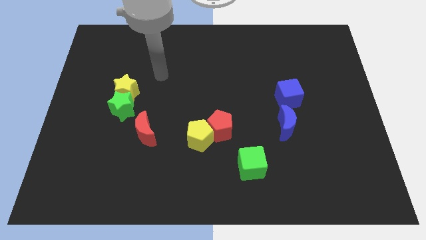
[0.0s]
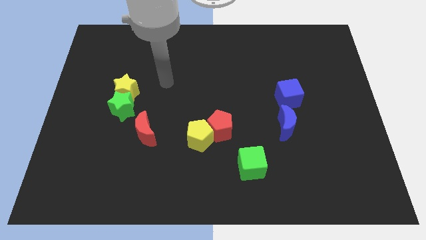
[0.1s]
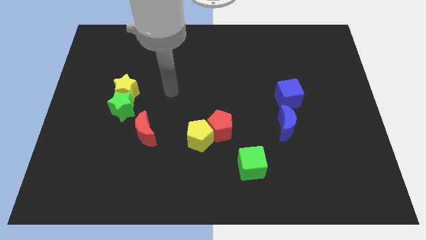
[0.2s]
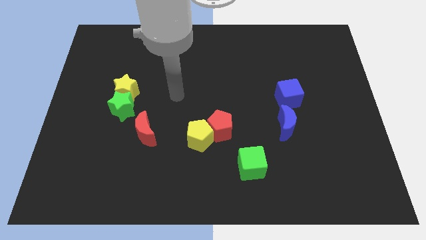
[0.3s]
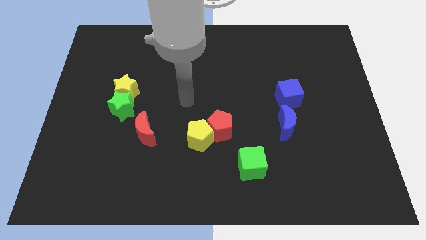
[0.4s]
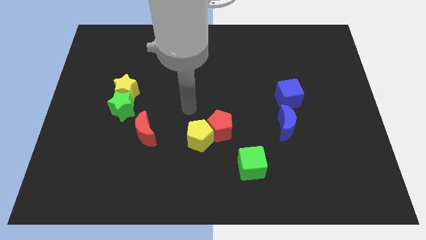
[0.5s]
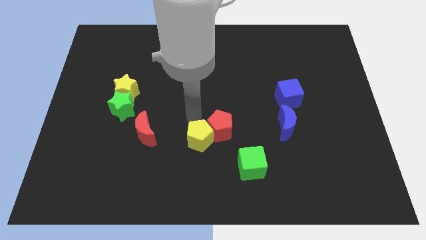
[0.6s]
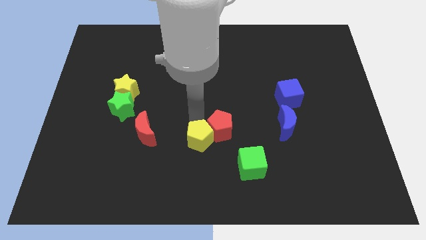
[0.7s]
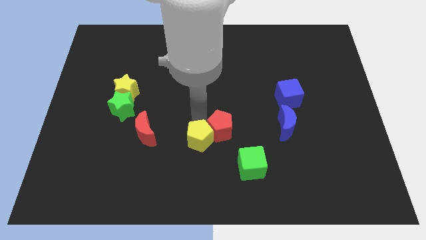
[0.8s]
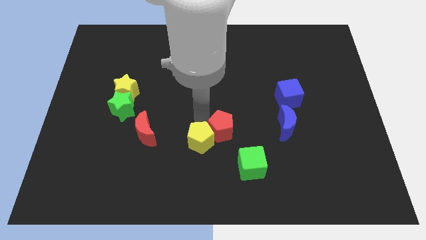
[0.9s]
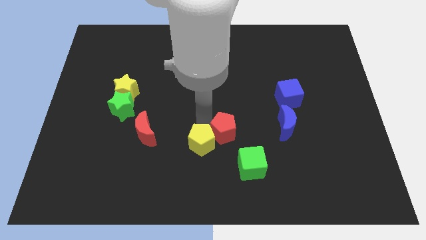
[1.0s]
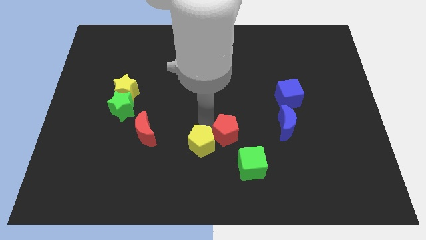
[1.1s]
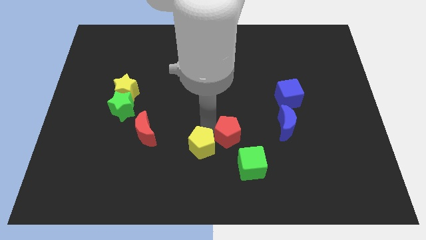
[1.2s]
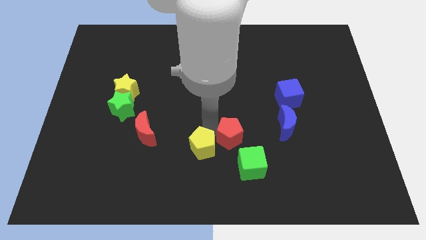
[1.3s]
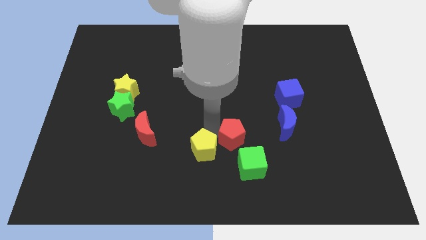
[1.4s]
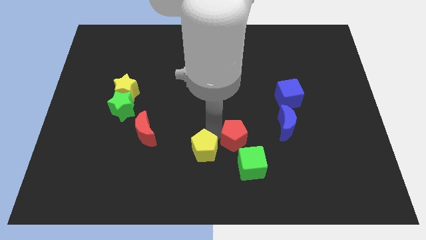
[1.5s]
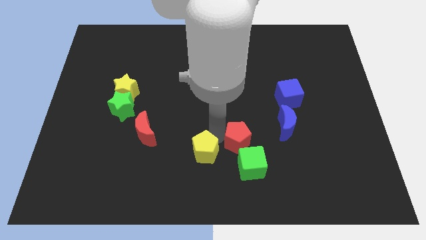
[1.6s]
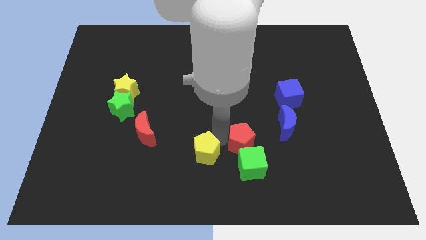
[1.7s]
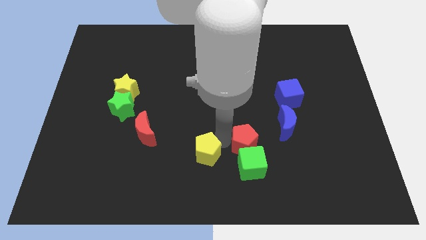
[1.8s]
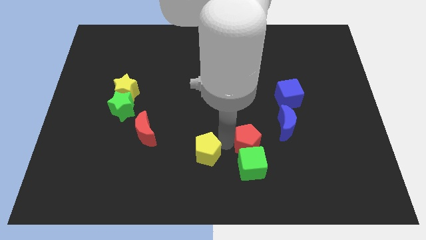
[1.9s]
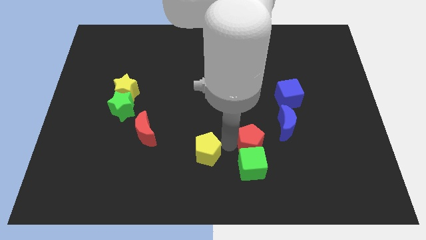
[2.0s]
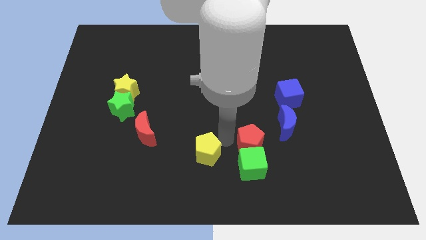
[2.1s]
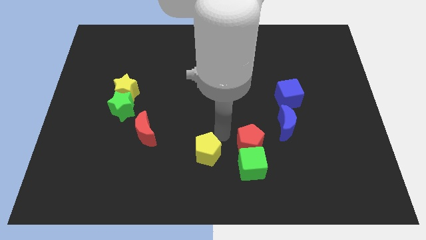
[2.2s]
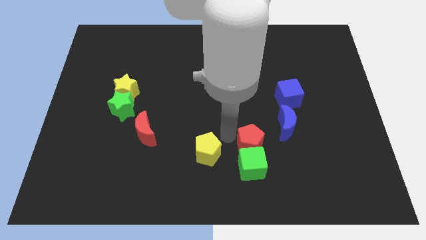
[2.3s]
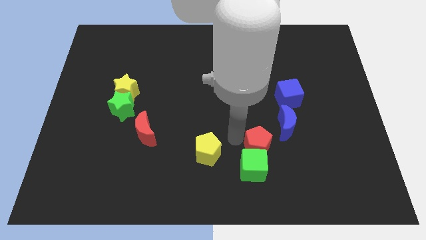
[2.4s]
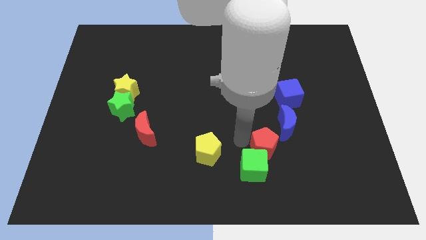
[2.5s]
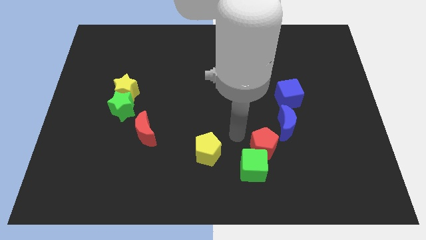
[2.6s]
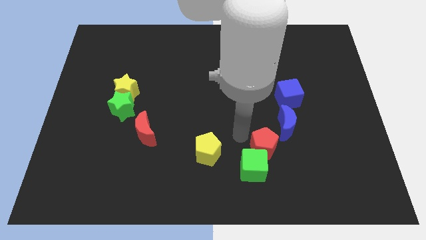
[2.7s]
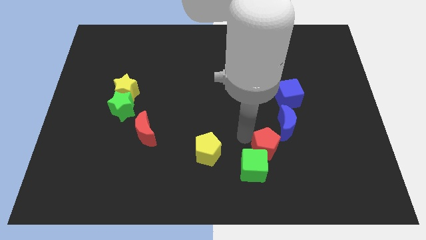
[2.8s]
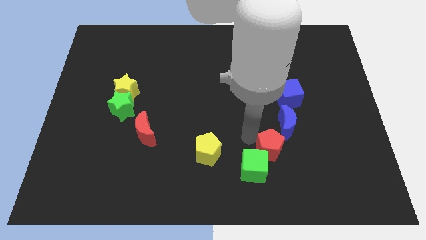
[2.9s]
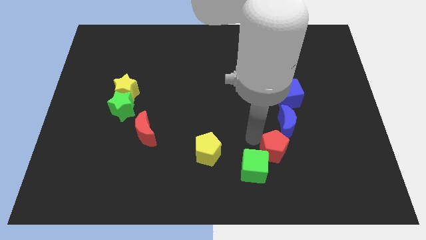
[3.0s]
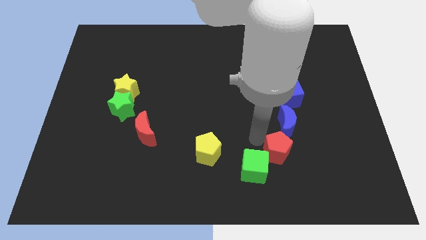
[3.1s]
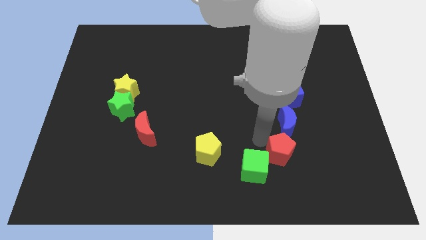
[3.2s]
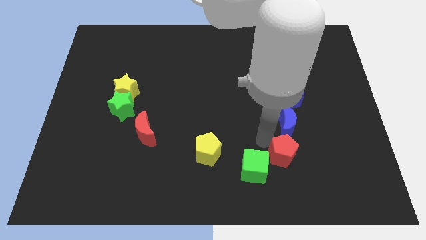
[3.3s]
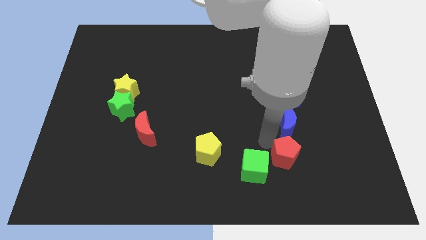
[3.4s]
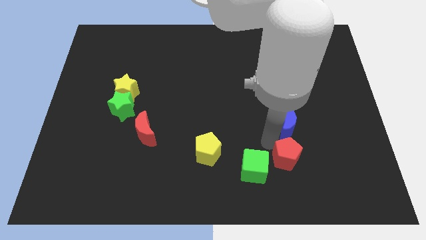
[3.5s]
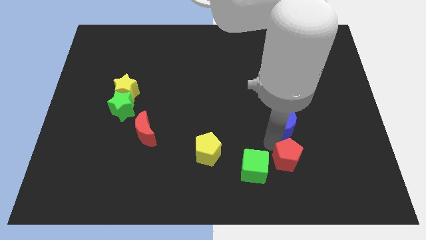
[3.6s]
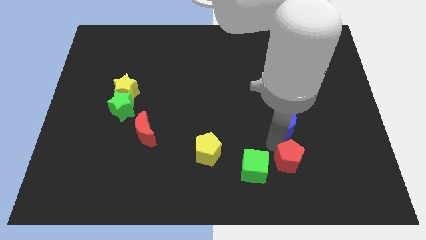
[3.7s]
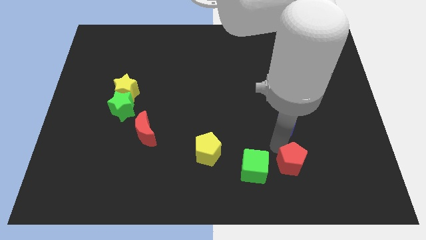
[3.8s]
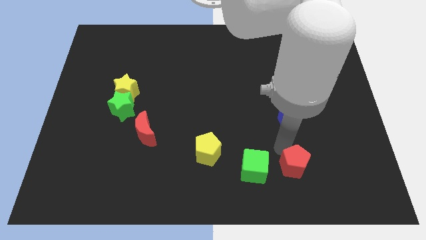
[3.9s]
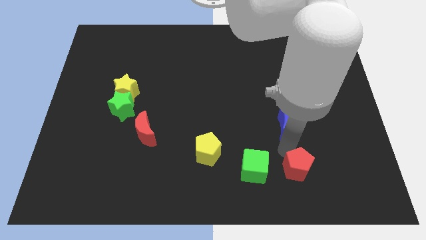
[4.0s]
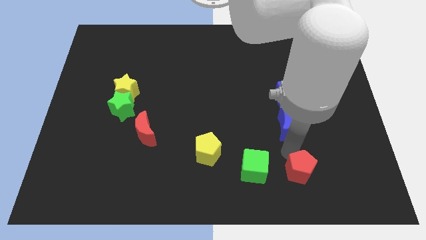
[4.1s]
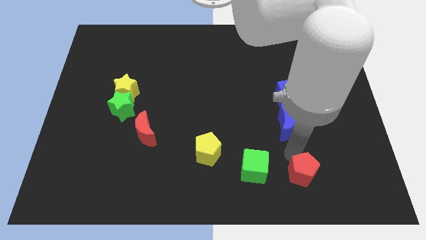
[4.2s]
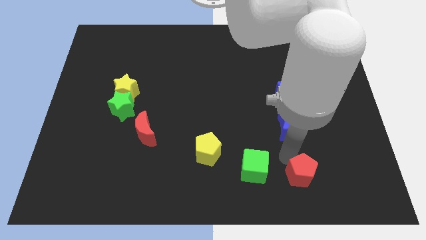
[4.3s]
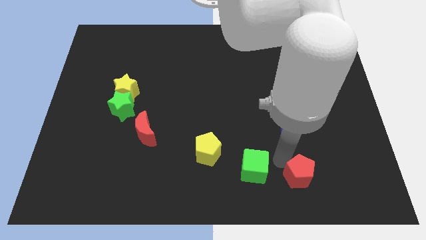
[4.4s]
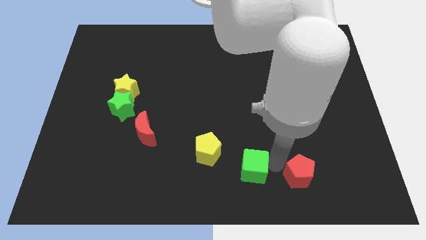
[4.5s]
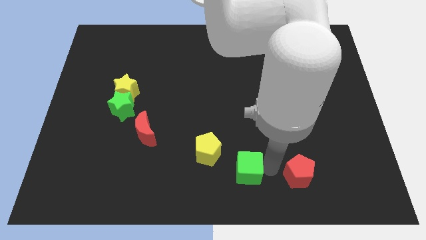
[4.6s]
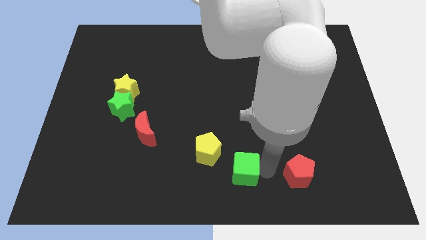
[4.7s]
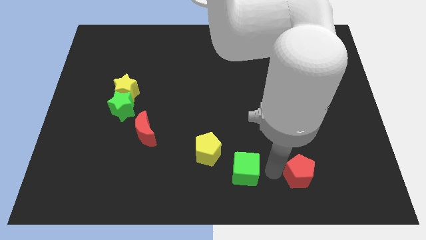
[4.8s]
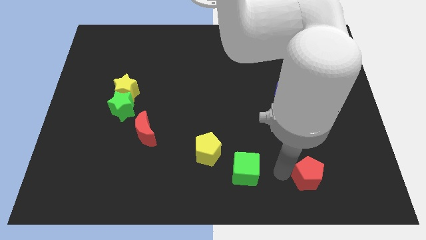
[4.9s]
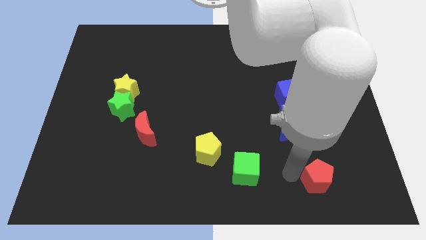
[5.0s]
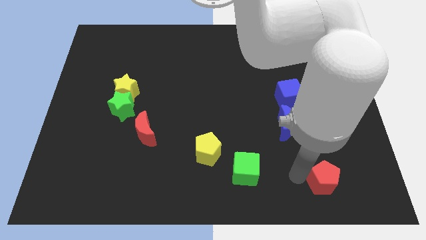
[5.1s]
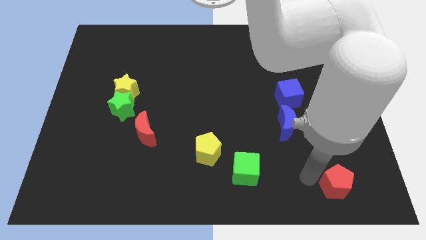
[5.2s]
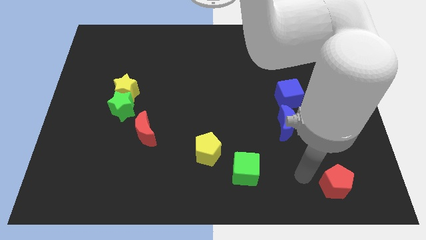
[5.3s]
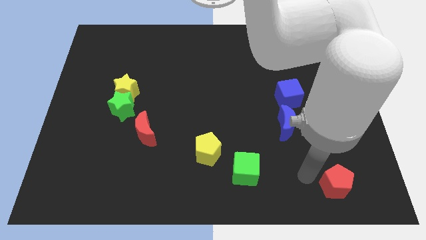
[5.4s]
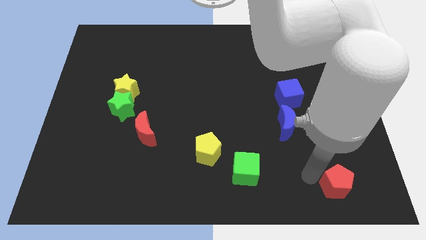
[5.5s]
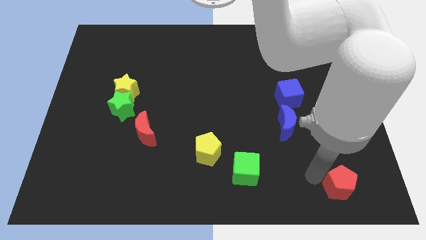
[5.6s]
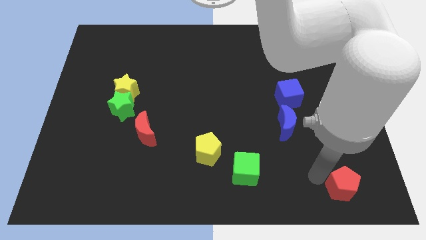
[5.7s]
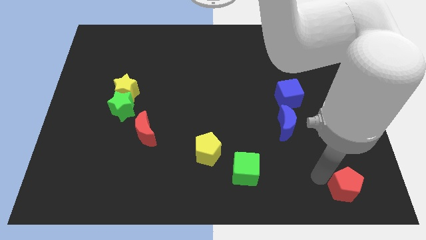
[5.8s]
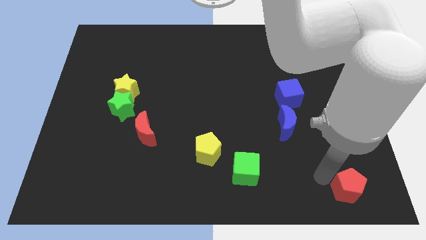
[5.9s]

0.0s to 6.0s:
slide the red pentagon to the bottom right of the board

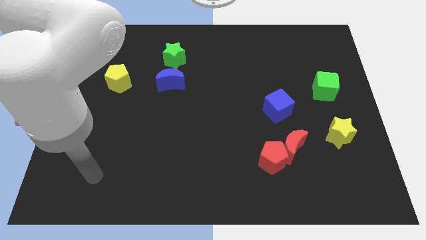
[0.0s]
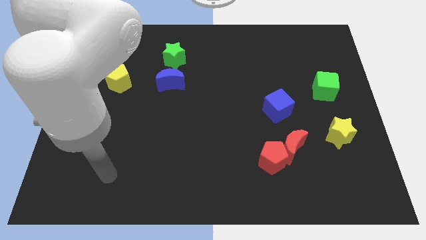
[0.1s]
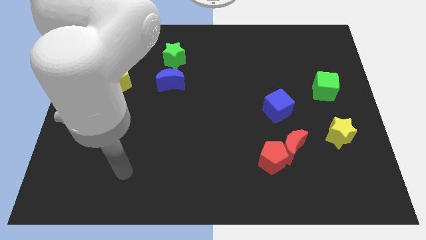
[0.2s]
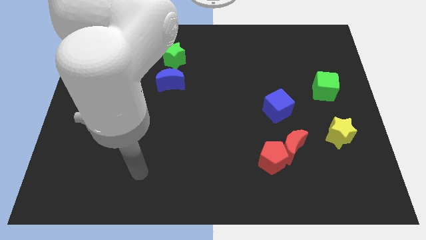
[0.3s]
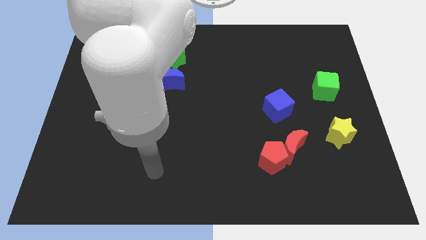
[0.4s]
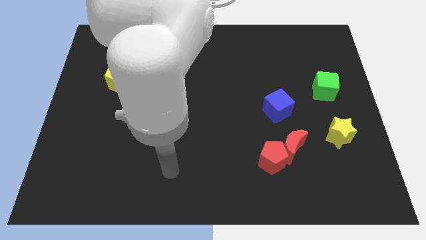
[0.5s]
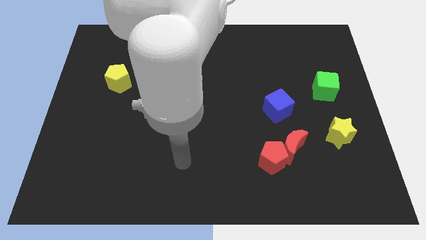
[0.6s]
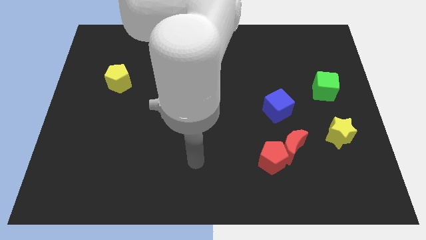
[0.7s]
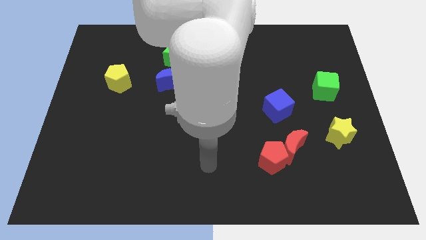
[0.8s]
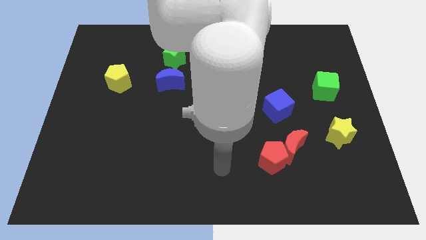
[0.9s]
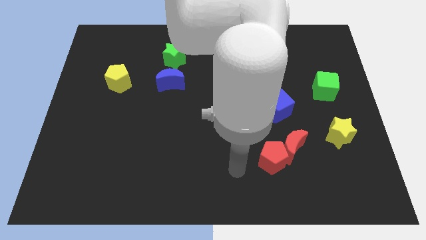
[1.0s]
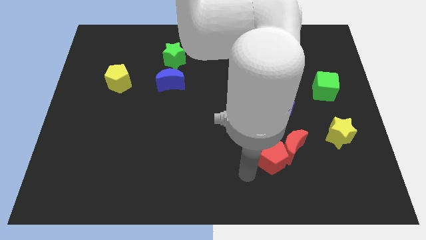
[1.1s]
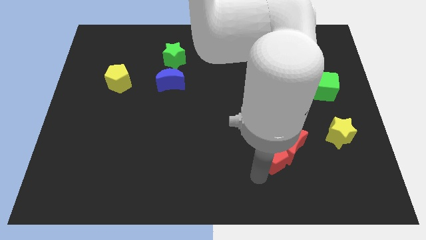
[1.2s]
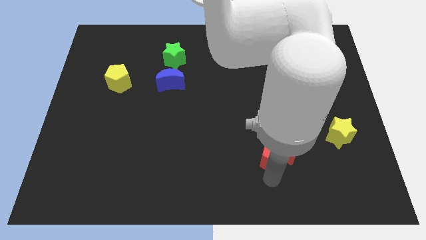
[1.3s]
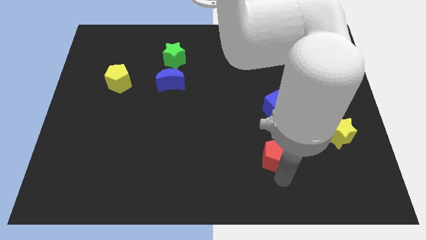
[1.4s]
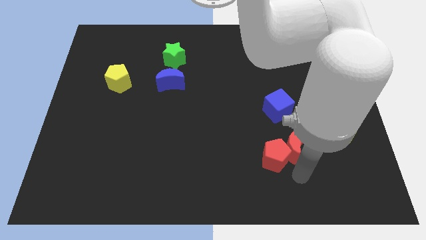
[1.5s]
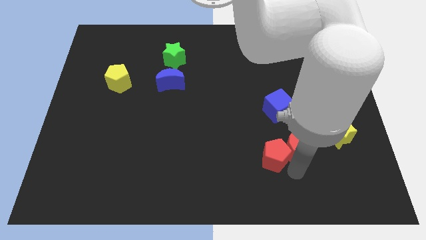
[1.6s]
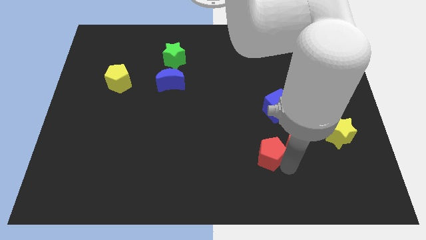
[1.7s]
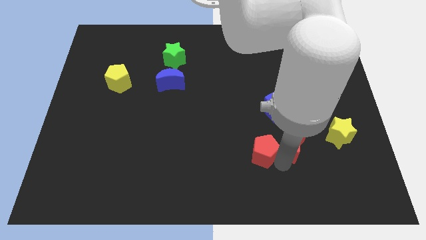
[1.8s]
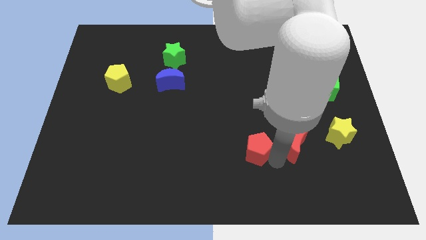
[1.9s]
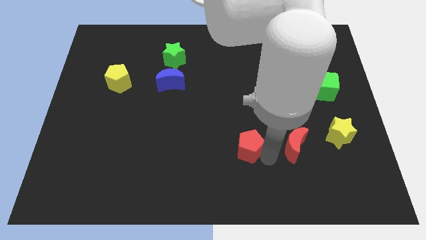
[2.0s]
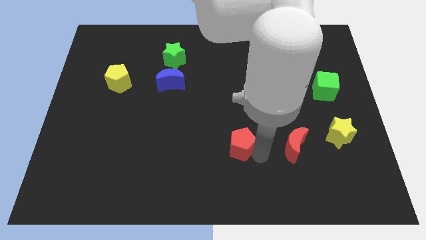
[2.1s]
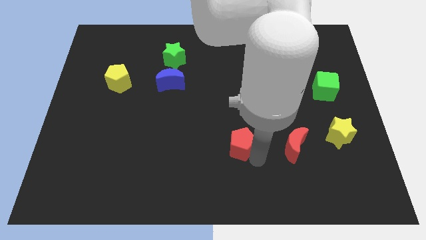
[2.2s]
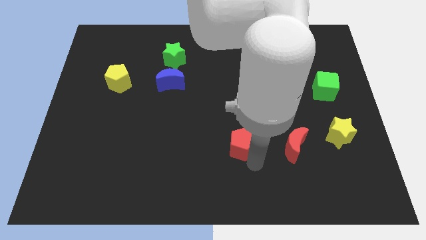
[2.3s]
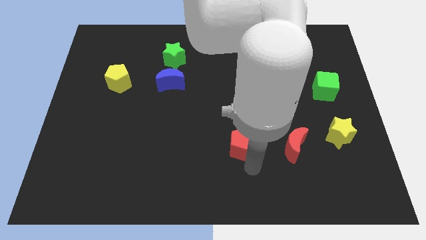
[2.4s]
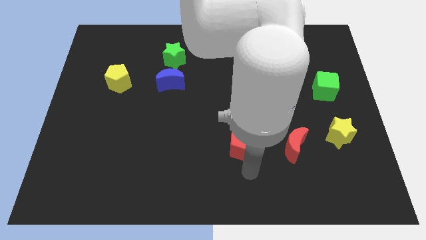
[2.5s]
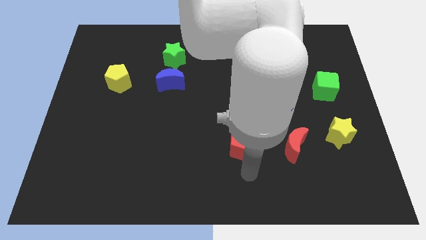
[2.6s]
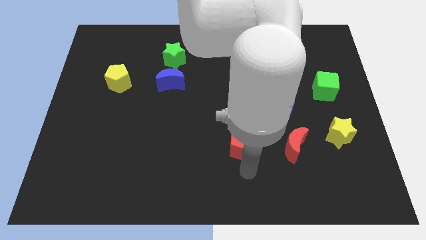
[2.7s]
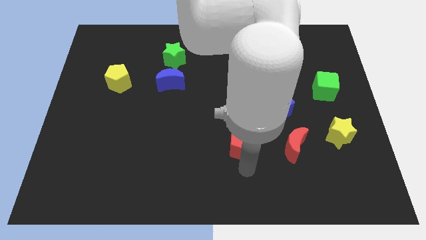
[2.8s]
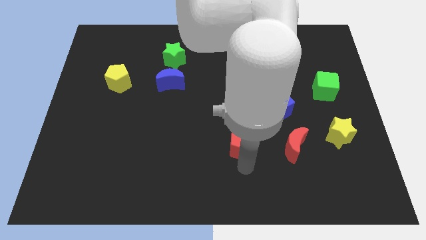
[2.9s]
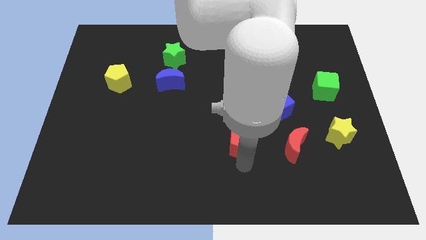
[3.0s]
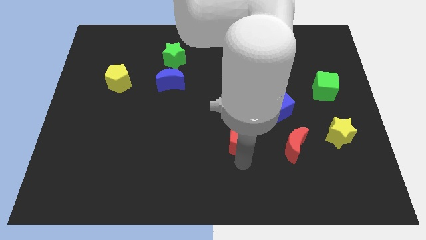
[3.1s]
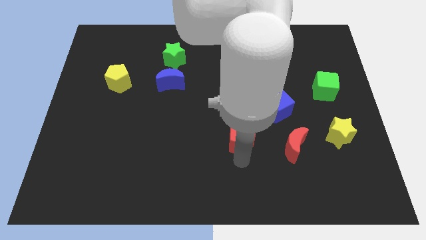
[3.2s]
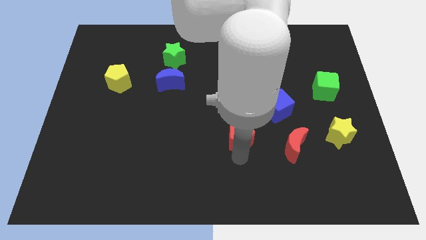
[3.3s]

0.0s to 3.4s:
put the red pentagon to the center of the board
